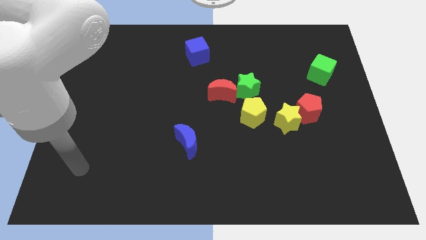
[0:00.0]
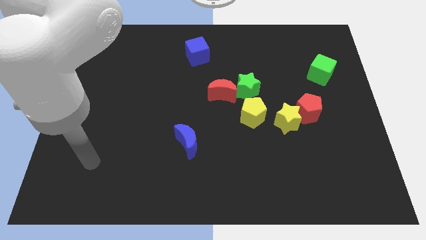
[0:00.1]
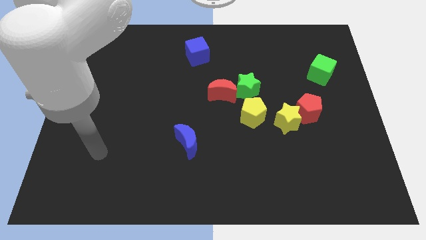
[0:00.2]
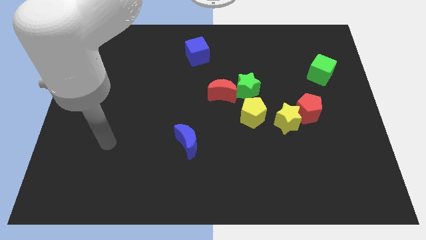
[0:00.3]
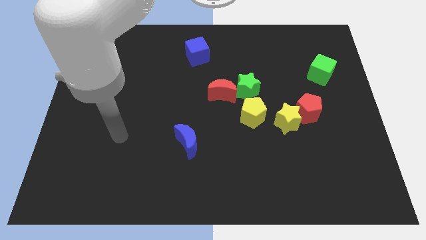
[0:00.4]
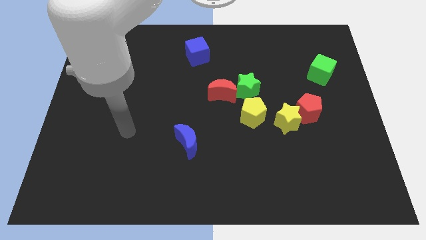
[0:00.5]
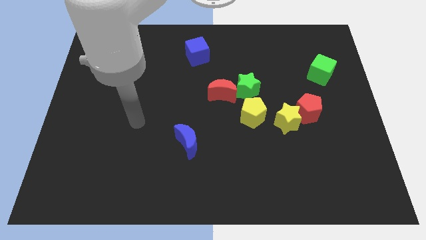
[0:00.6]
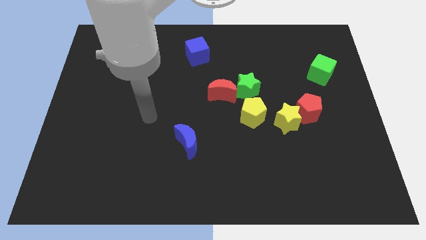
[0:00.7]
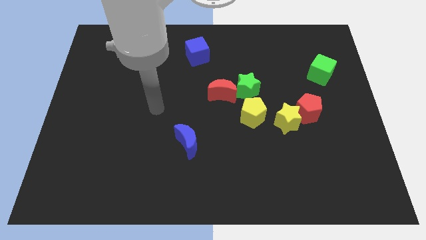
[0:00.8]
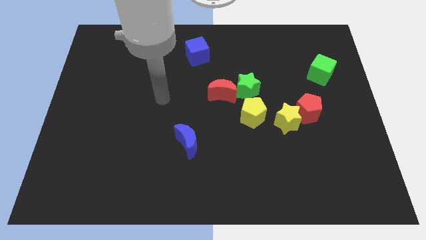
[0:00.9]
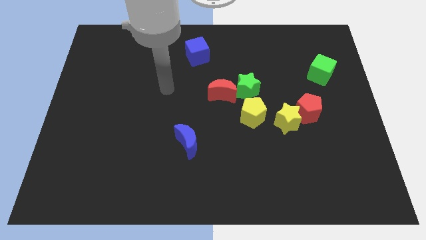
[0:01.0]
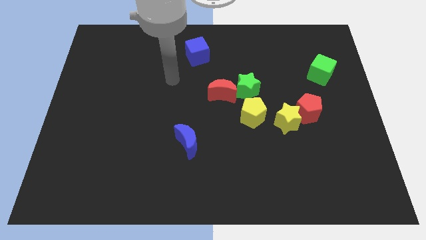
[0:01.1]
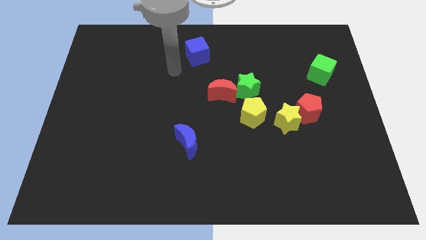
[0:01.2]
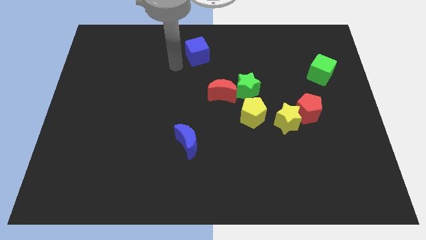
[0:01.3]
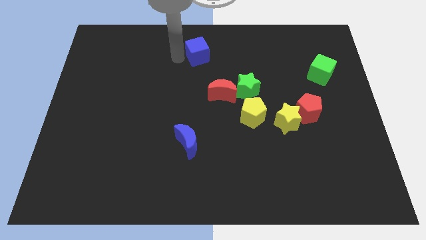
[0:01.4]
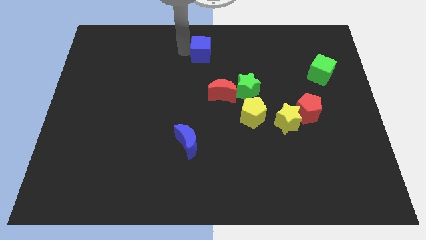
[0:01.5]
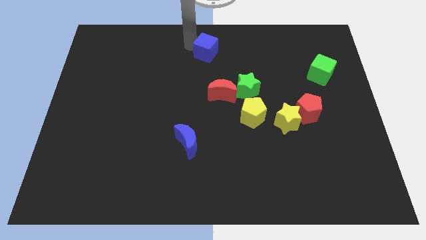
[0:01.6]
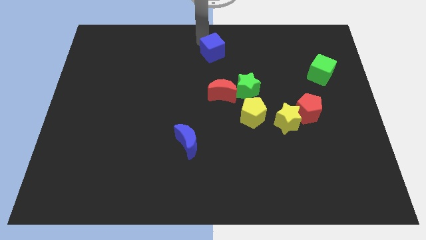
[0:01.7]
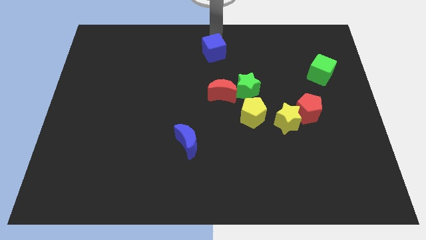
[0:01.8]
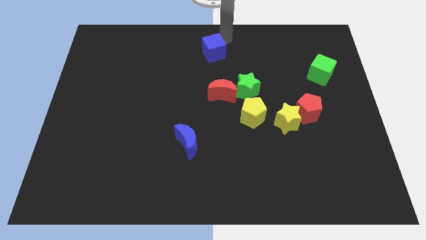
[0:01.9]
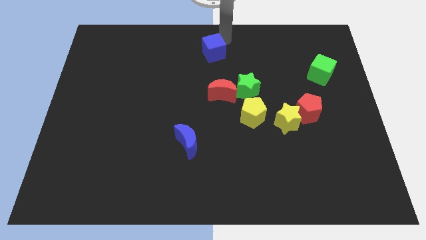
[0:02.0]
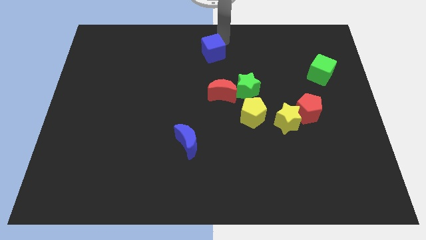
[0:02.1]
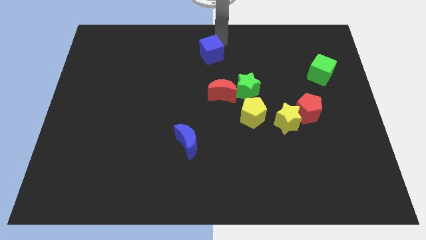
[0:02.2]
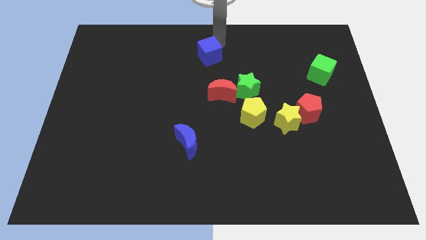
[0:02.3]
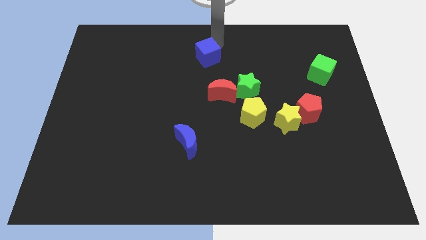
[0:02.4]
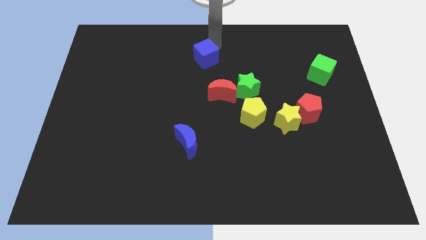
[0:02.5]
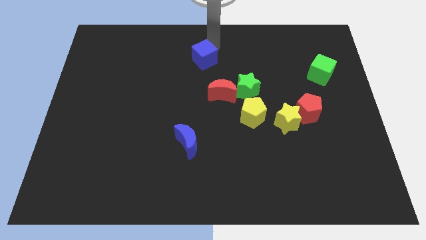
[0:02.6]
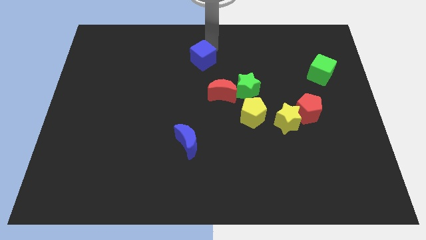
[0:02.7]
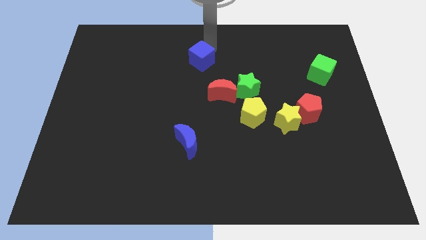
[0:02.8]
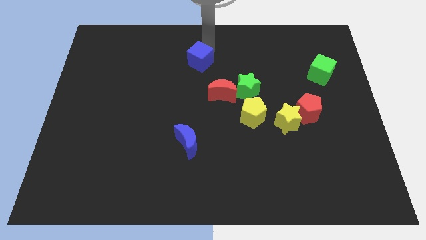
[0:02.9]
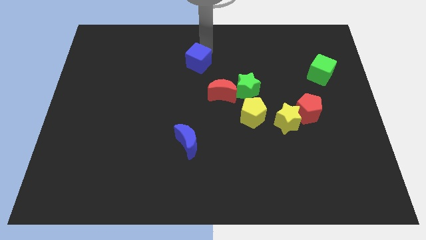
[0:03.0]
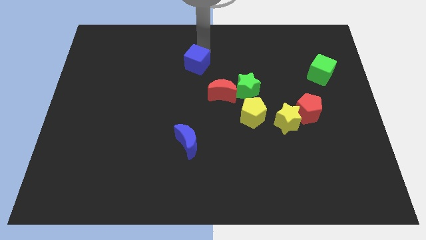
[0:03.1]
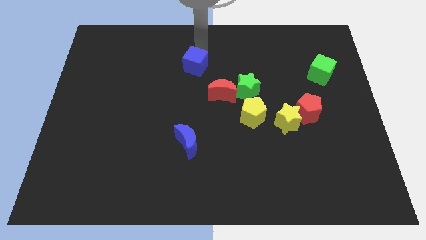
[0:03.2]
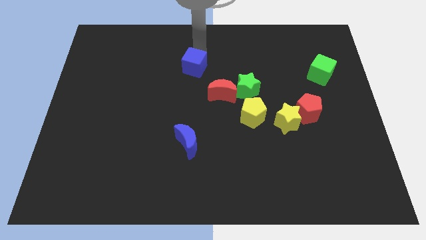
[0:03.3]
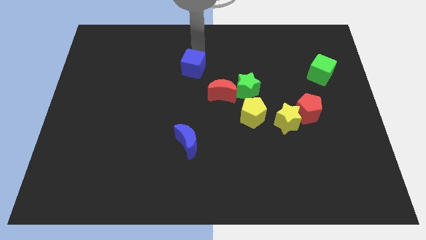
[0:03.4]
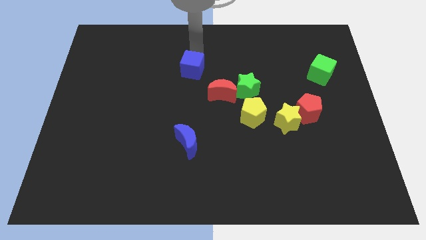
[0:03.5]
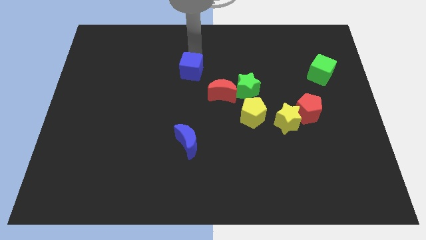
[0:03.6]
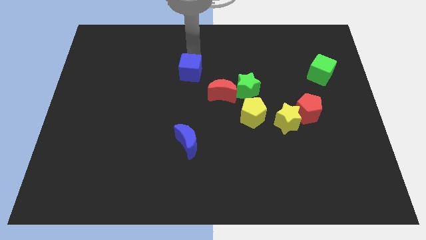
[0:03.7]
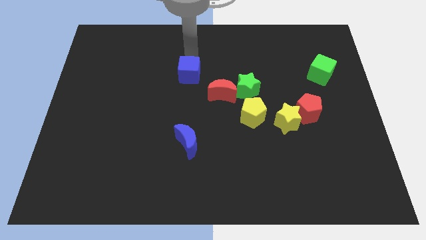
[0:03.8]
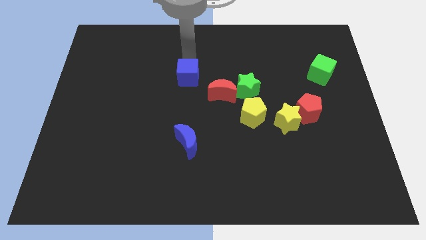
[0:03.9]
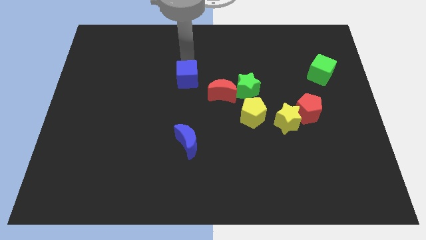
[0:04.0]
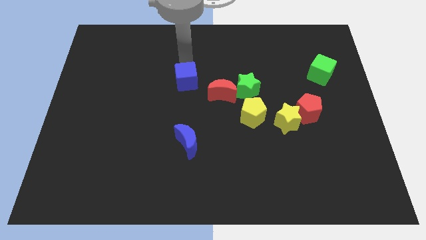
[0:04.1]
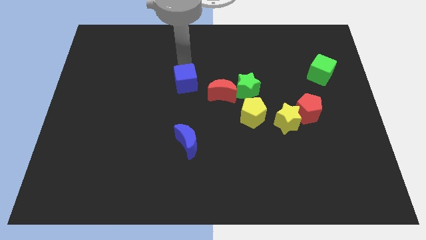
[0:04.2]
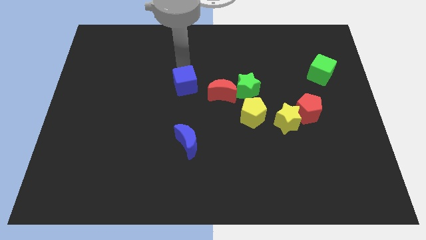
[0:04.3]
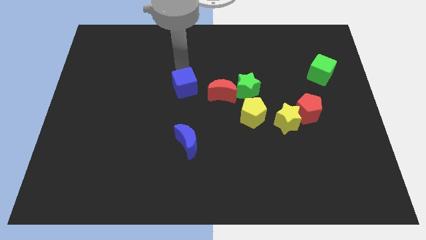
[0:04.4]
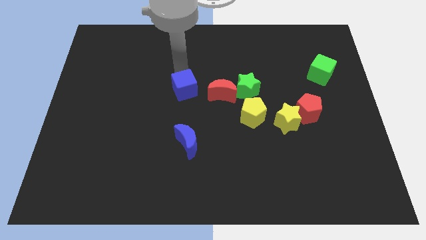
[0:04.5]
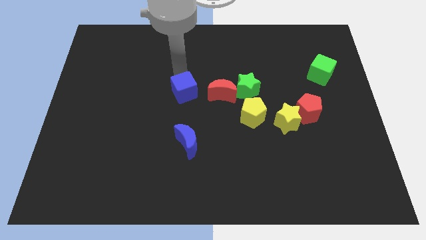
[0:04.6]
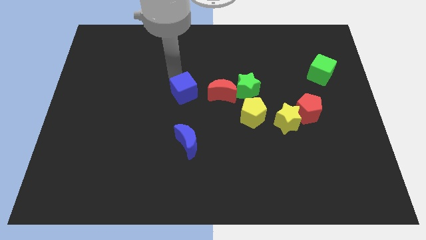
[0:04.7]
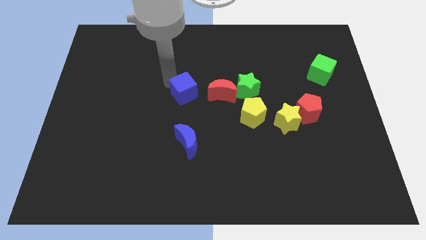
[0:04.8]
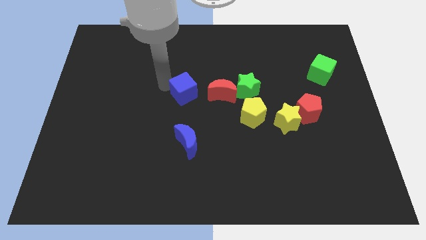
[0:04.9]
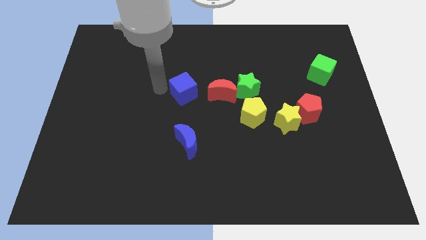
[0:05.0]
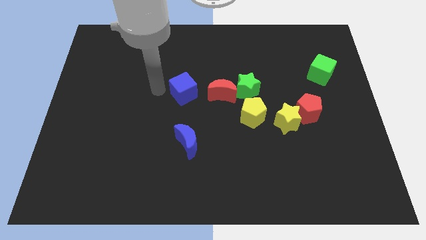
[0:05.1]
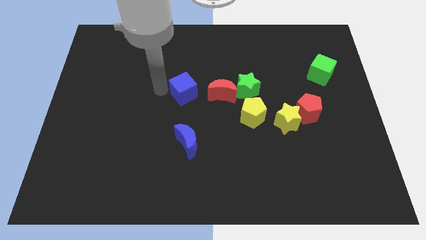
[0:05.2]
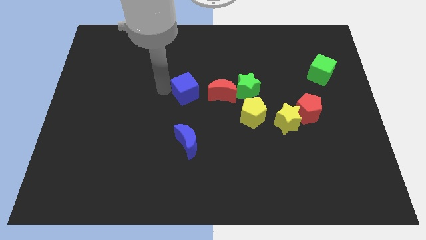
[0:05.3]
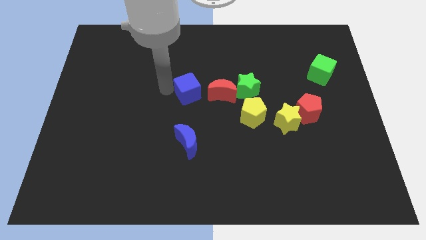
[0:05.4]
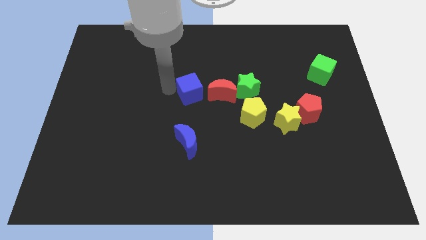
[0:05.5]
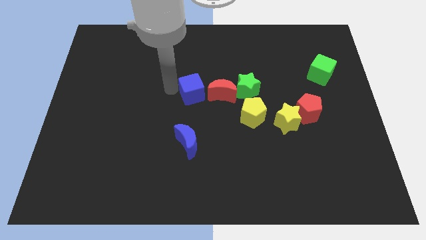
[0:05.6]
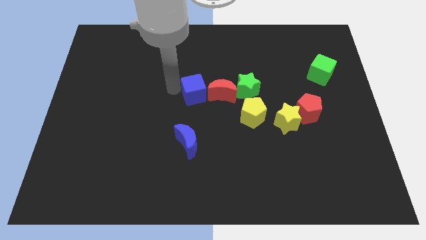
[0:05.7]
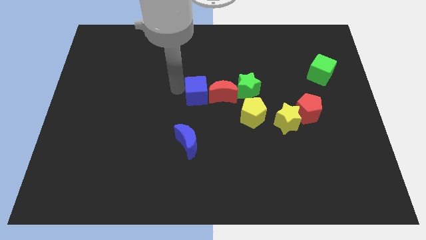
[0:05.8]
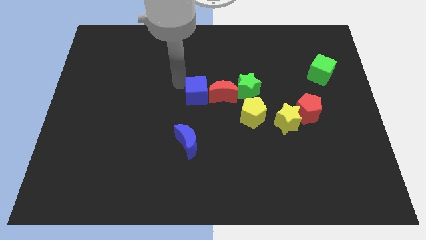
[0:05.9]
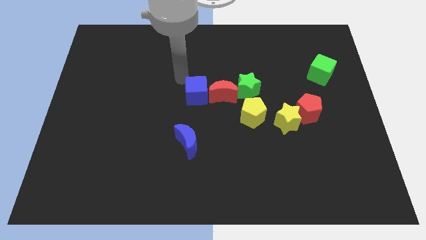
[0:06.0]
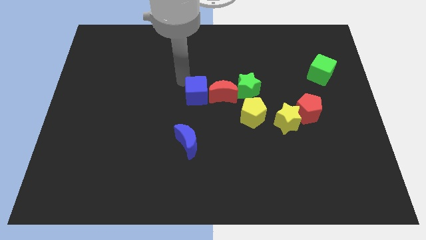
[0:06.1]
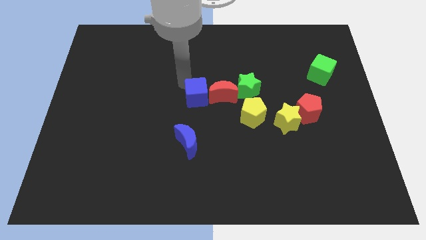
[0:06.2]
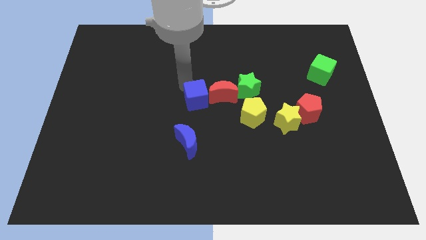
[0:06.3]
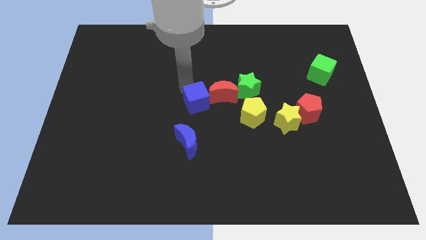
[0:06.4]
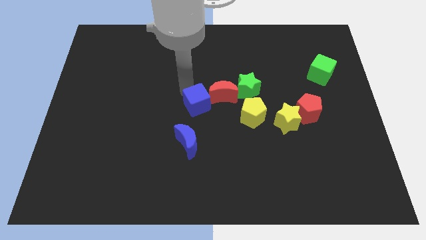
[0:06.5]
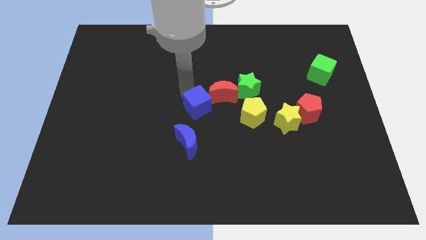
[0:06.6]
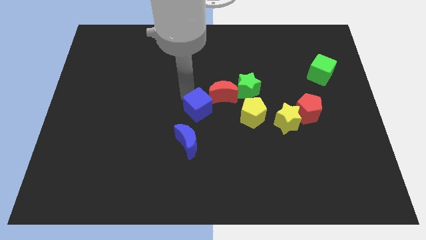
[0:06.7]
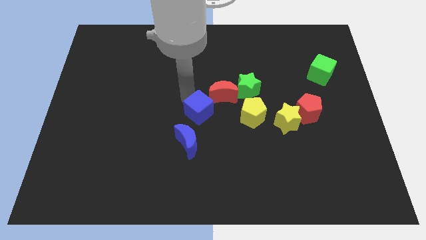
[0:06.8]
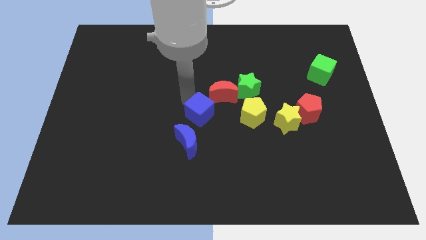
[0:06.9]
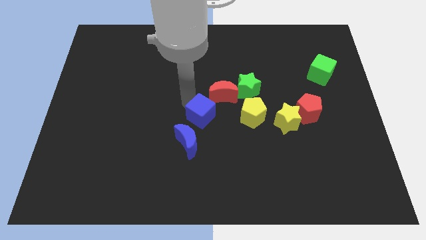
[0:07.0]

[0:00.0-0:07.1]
push the blue cube down

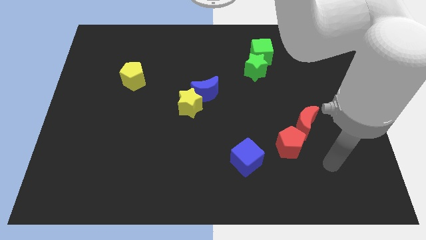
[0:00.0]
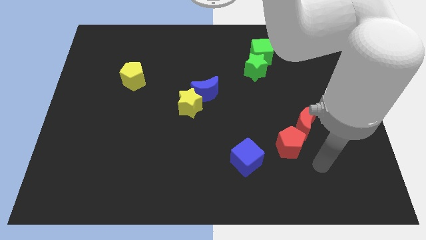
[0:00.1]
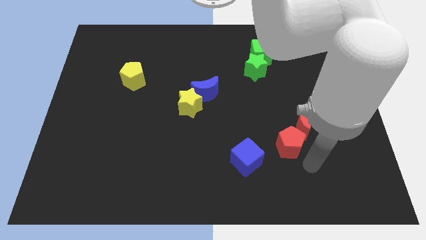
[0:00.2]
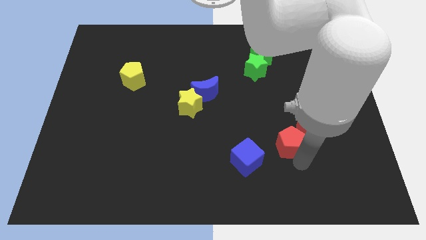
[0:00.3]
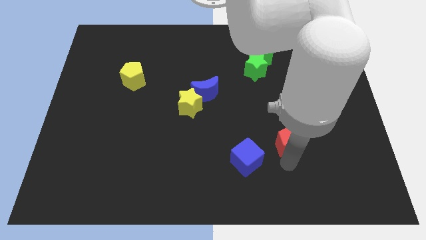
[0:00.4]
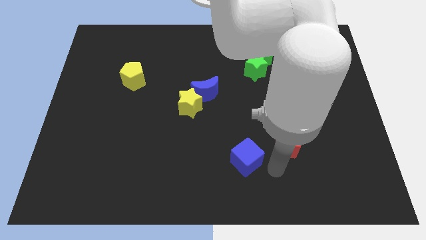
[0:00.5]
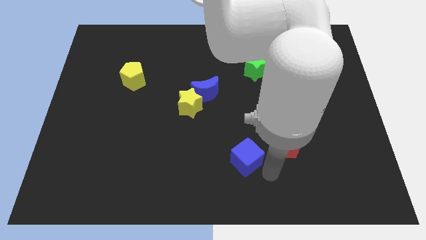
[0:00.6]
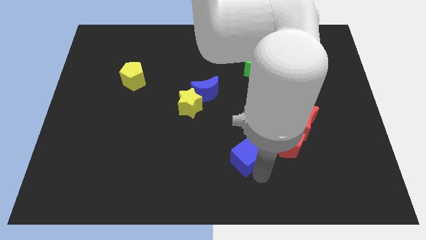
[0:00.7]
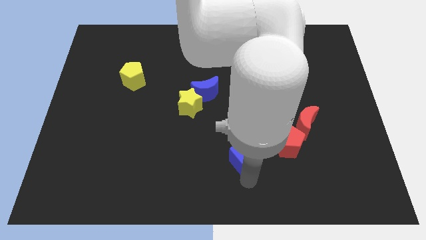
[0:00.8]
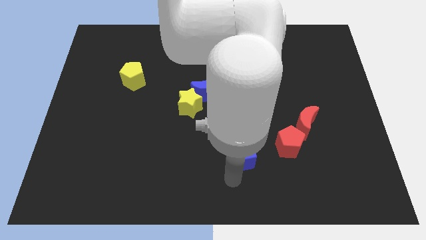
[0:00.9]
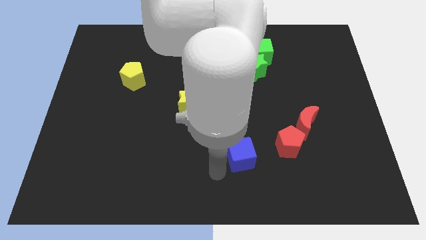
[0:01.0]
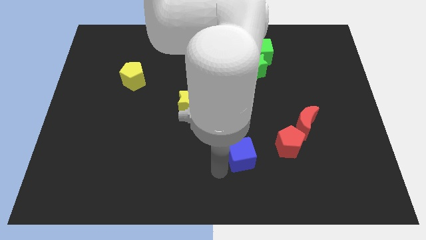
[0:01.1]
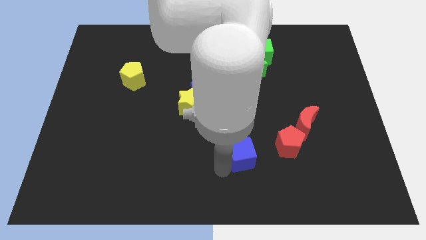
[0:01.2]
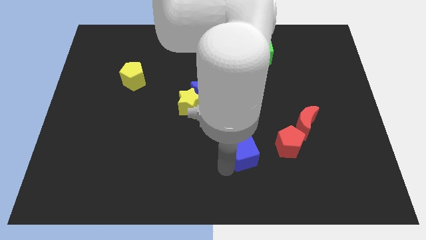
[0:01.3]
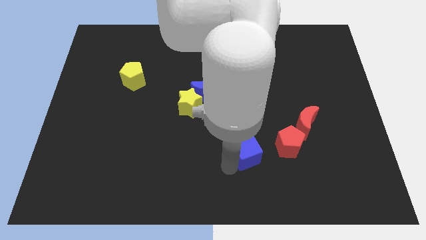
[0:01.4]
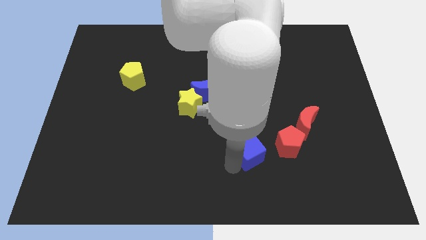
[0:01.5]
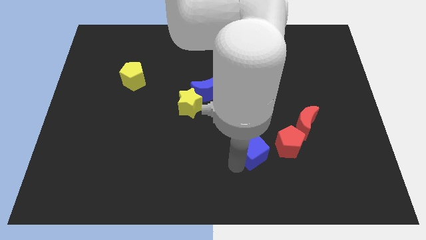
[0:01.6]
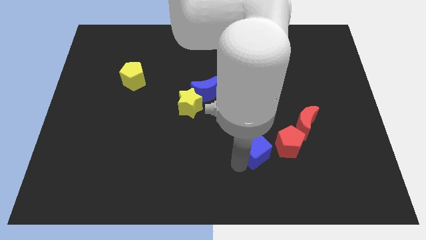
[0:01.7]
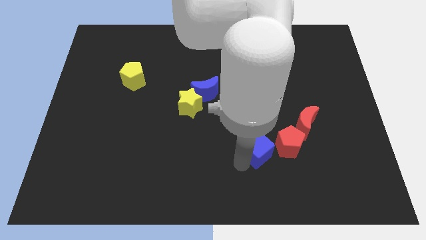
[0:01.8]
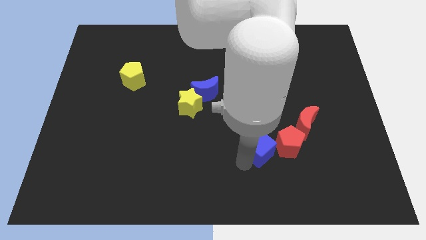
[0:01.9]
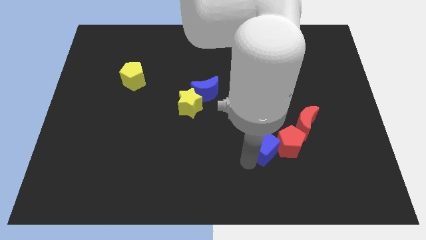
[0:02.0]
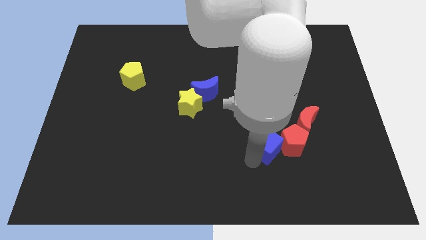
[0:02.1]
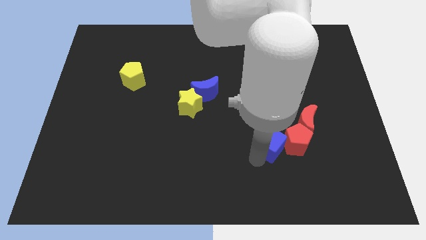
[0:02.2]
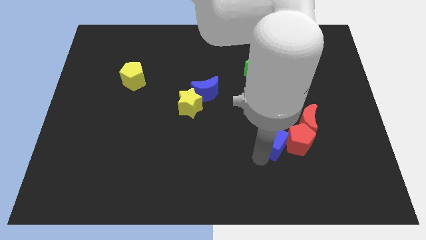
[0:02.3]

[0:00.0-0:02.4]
push the blue cube up and to the right a little bit
